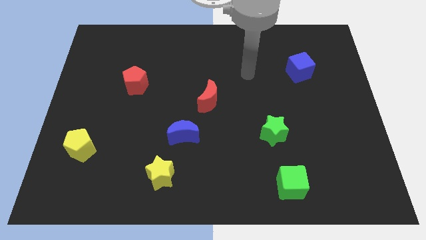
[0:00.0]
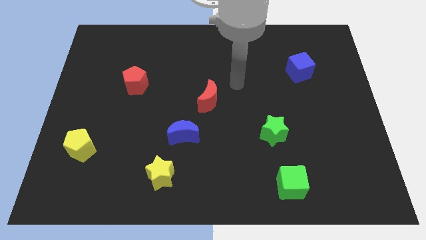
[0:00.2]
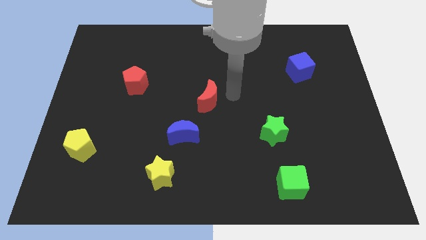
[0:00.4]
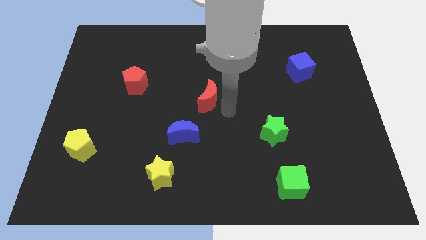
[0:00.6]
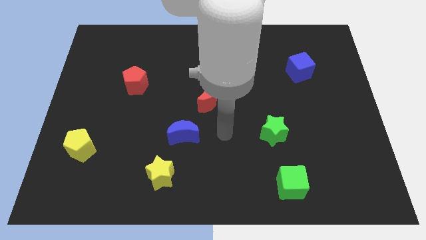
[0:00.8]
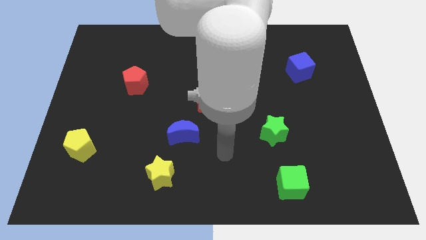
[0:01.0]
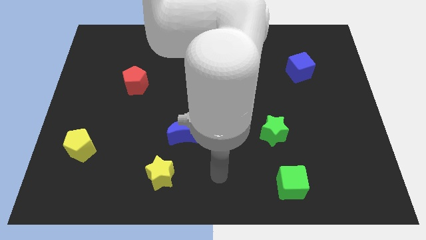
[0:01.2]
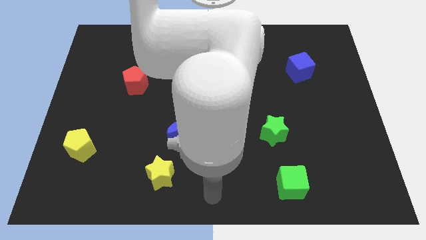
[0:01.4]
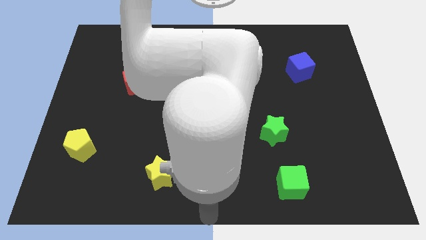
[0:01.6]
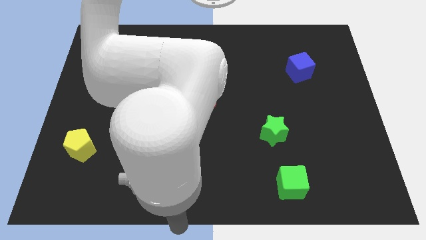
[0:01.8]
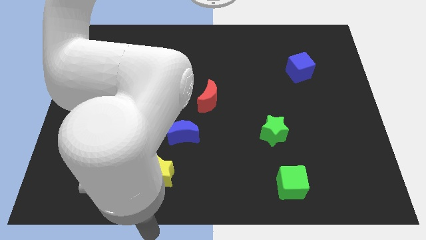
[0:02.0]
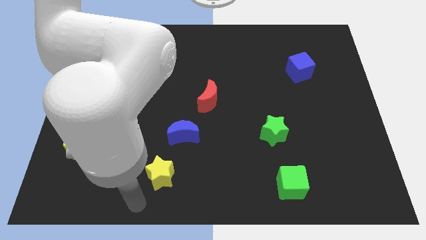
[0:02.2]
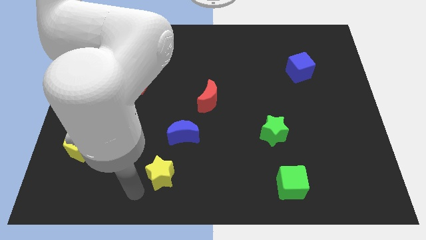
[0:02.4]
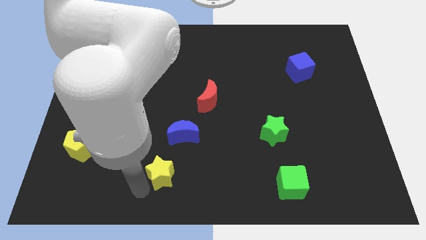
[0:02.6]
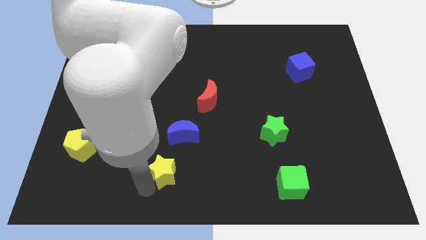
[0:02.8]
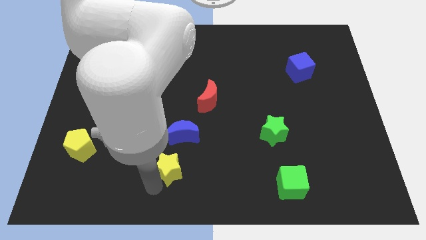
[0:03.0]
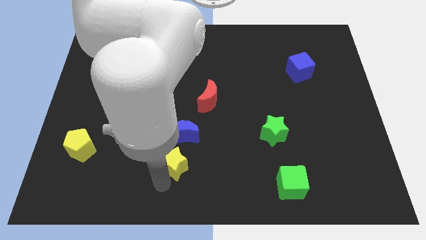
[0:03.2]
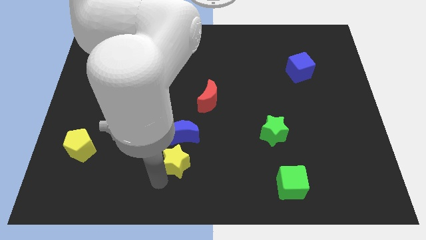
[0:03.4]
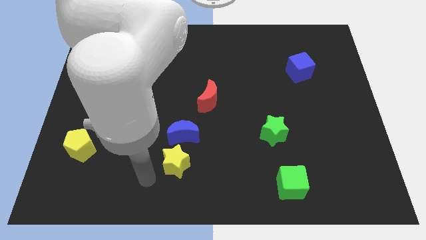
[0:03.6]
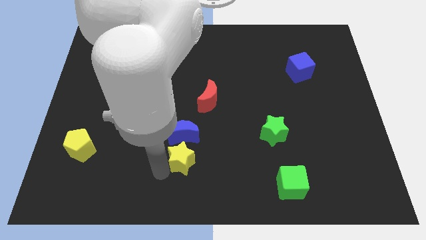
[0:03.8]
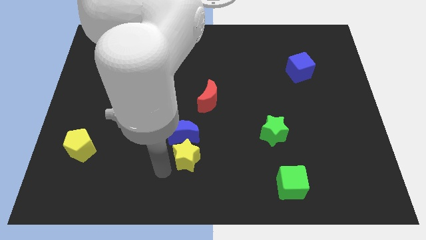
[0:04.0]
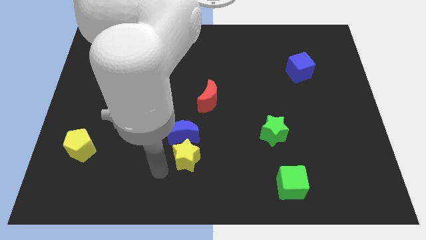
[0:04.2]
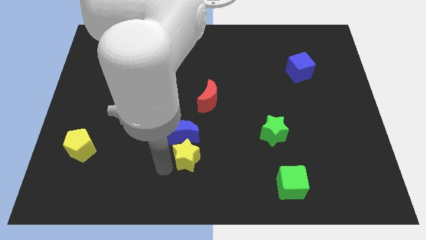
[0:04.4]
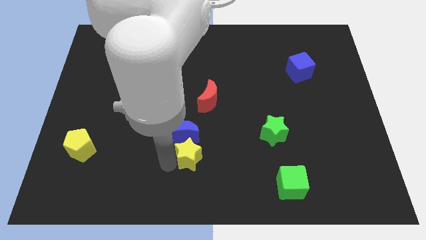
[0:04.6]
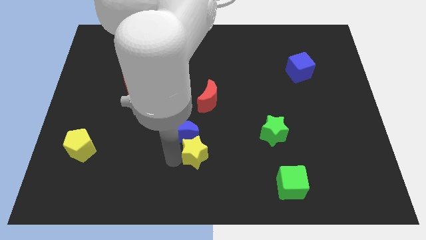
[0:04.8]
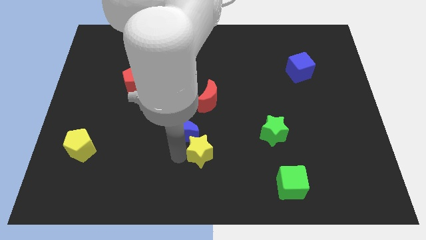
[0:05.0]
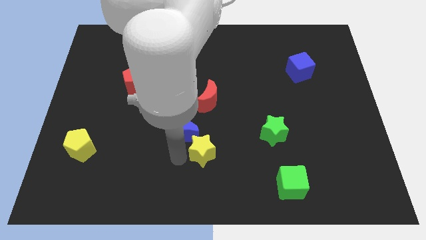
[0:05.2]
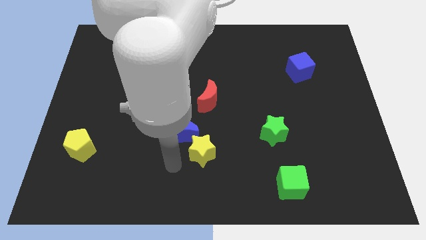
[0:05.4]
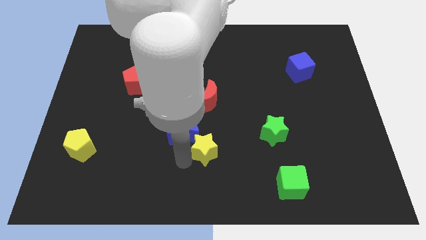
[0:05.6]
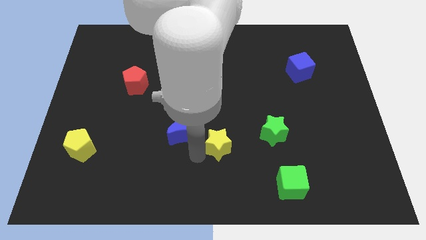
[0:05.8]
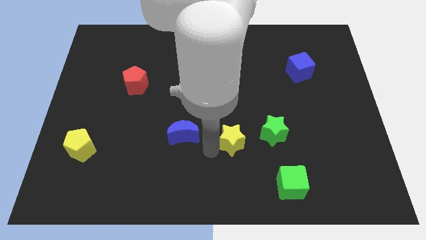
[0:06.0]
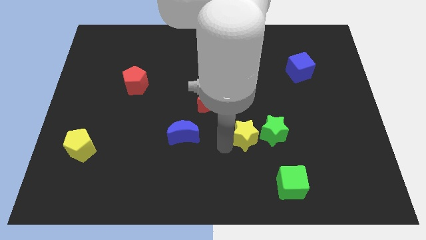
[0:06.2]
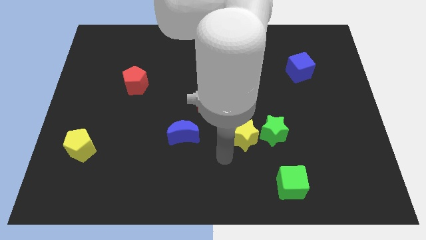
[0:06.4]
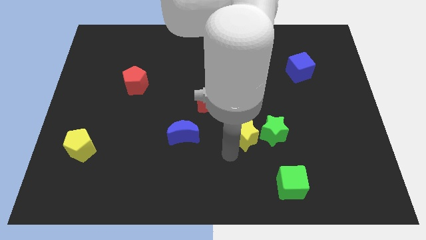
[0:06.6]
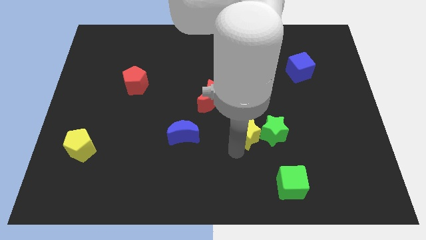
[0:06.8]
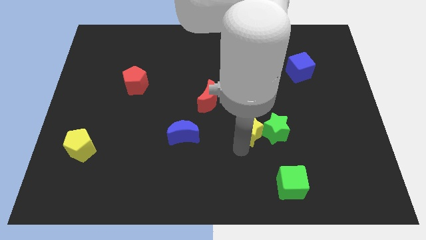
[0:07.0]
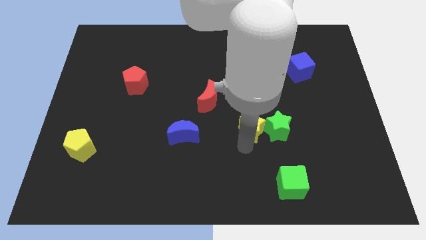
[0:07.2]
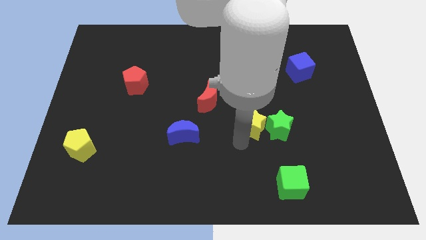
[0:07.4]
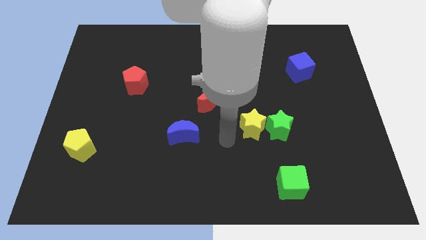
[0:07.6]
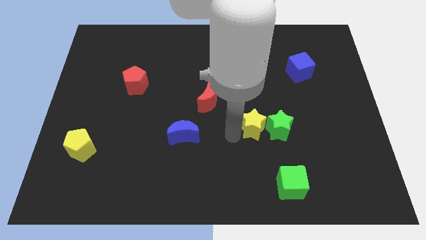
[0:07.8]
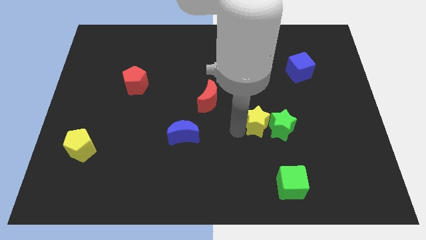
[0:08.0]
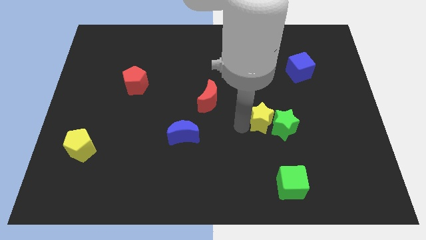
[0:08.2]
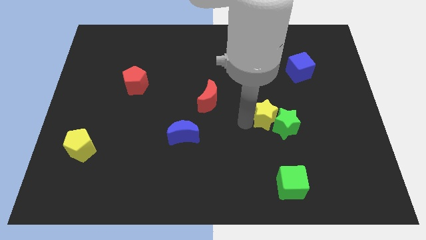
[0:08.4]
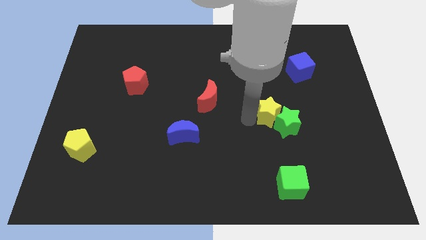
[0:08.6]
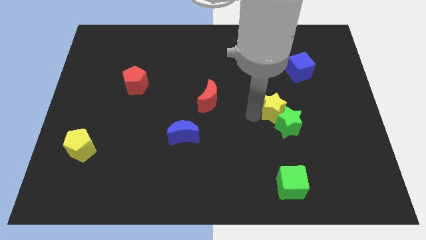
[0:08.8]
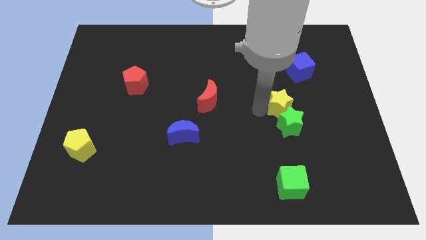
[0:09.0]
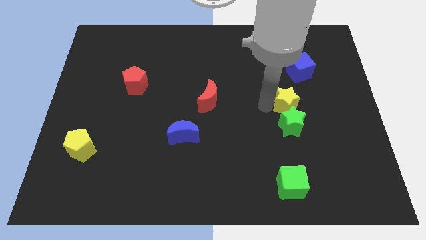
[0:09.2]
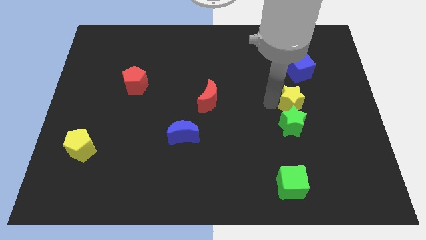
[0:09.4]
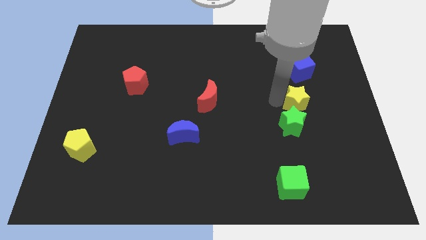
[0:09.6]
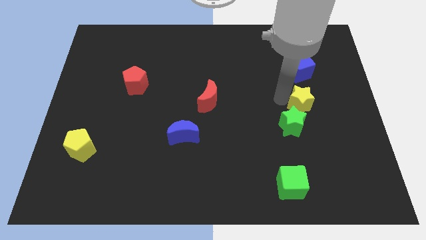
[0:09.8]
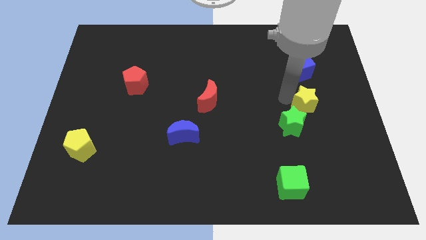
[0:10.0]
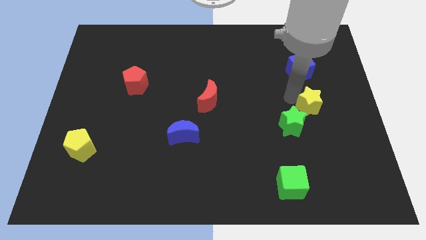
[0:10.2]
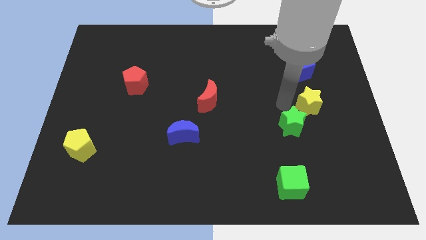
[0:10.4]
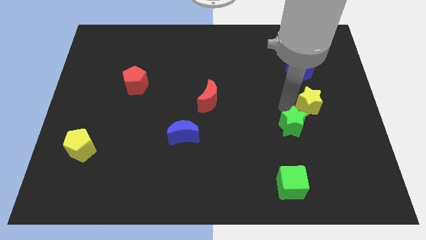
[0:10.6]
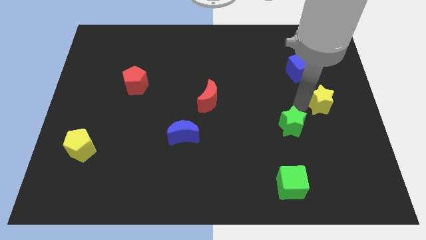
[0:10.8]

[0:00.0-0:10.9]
move the yellow star to the right side of the board
